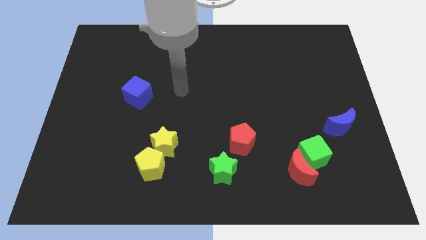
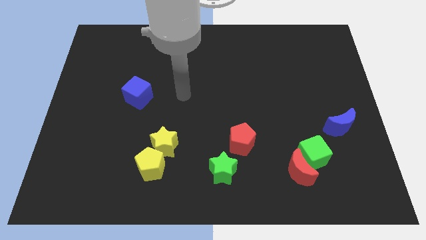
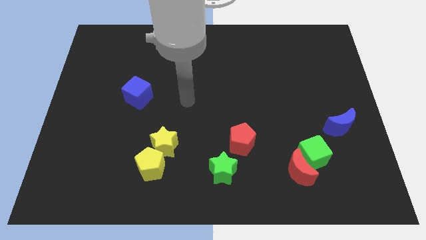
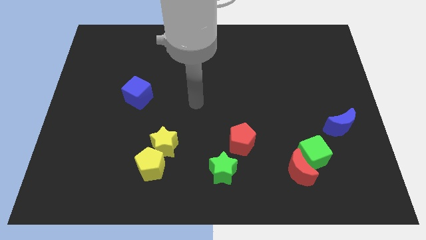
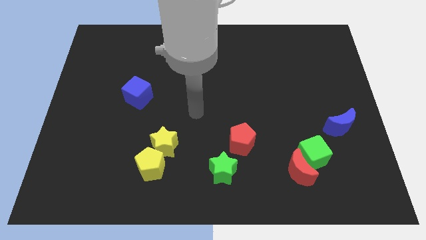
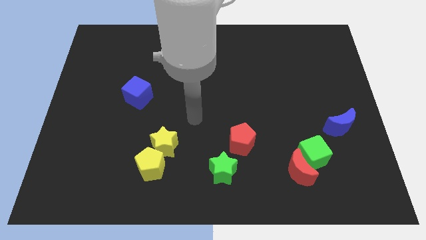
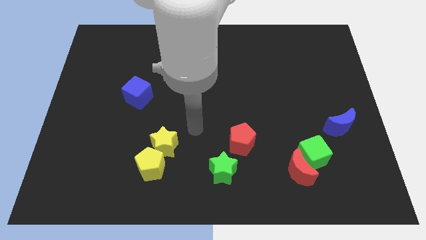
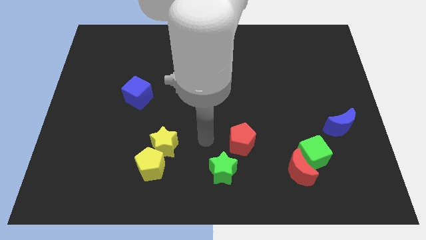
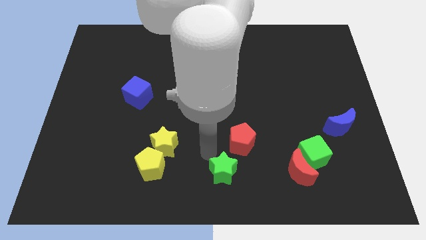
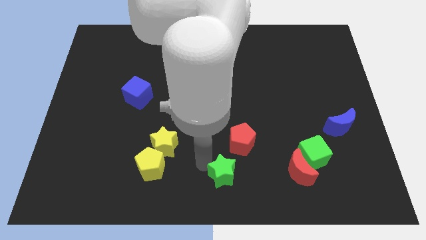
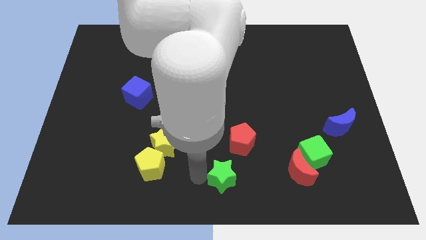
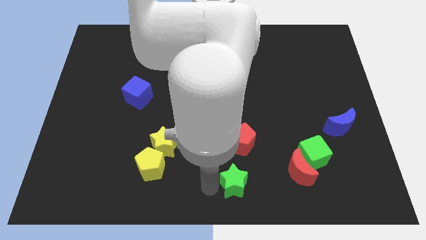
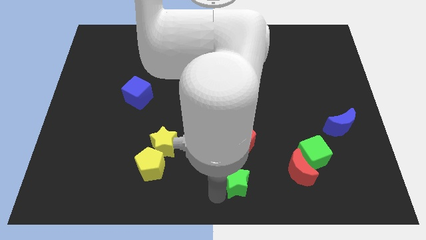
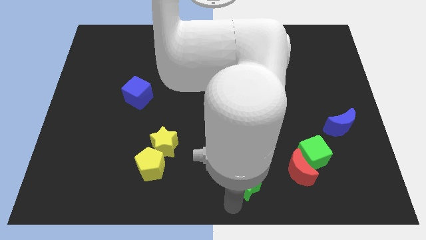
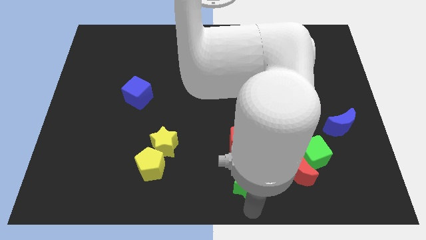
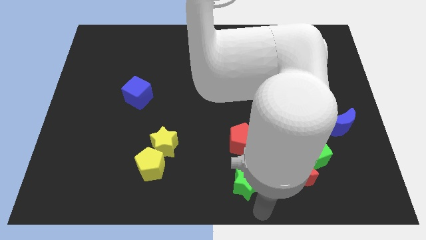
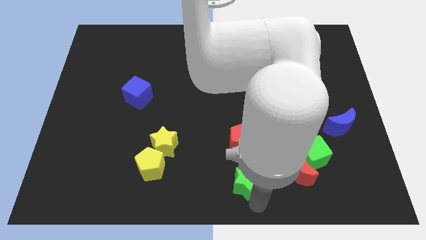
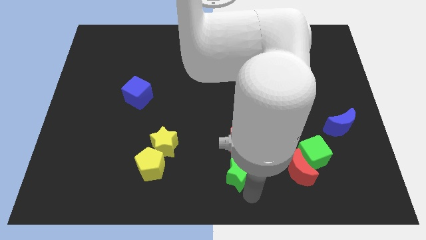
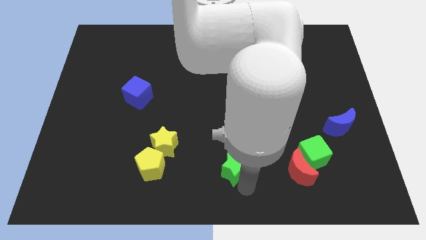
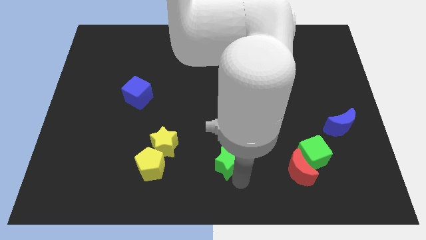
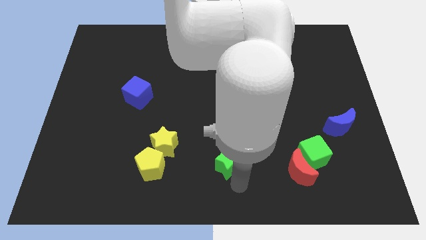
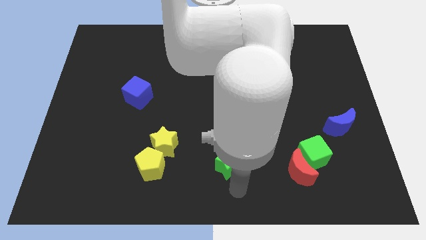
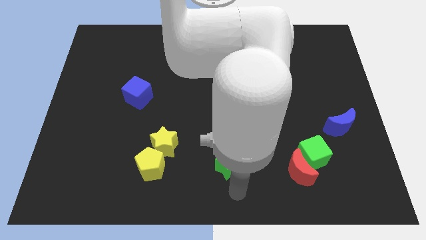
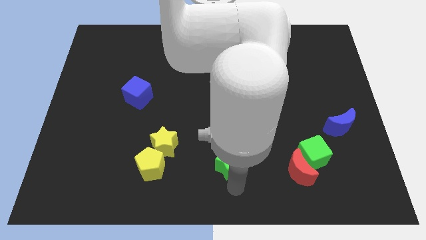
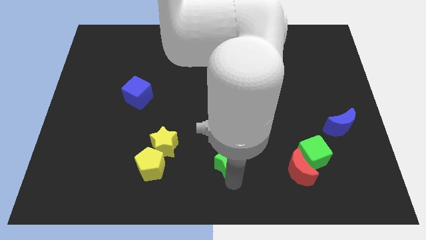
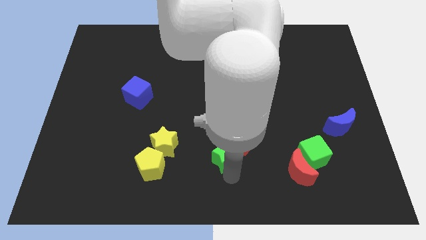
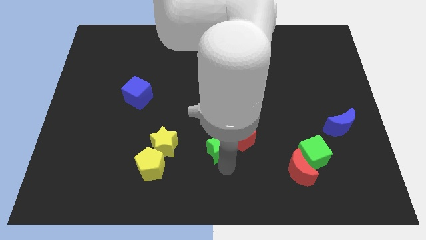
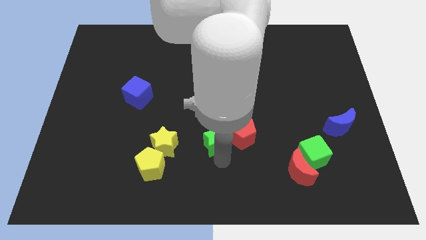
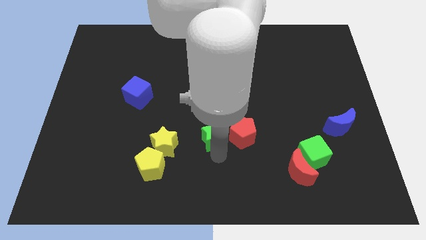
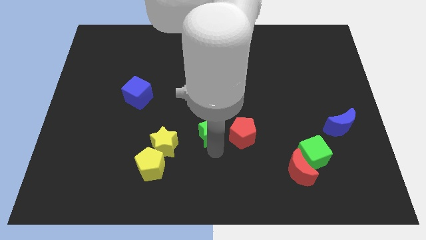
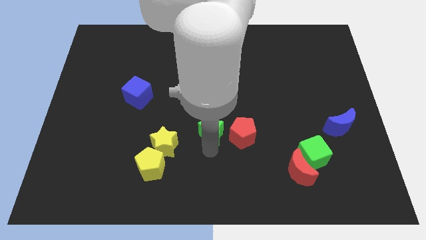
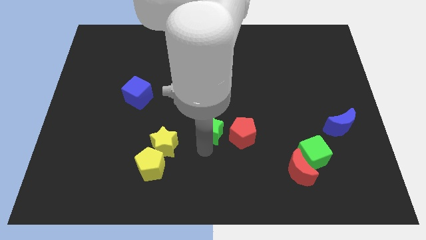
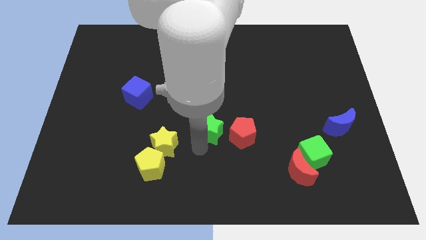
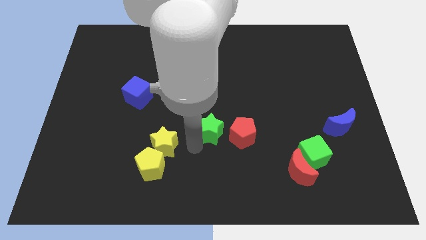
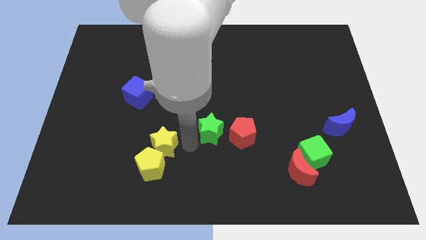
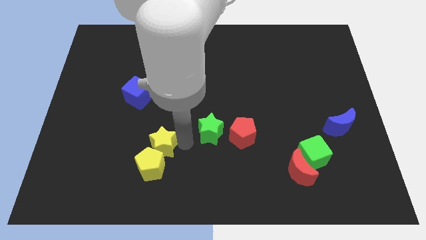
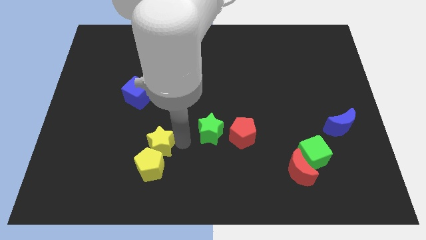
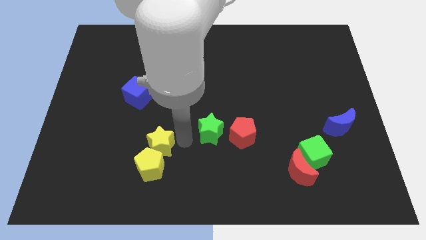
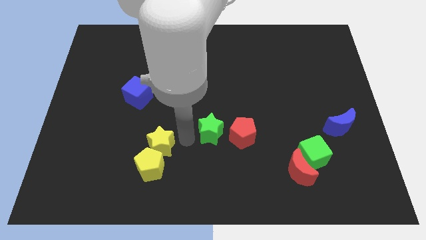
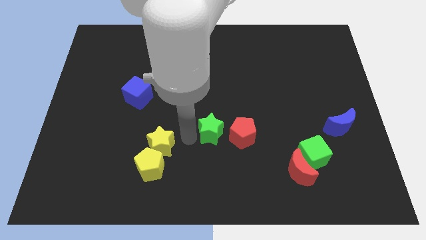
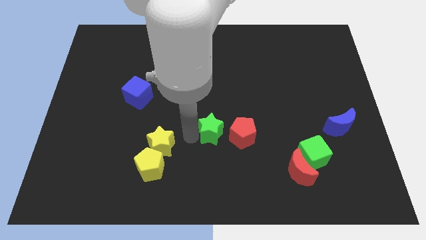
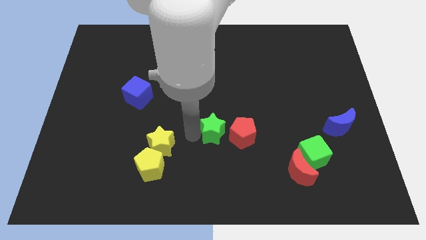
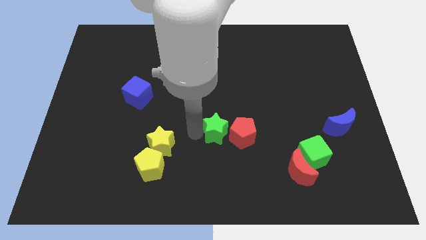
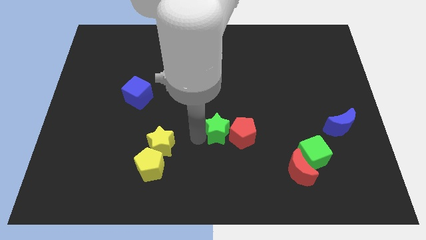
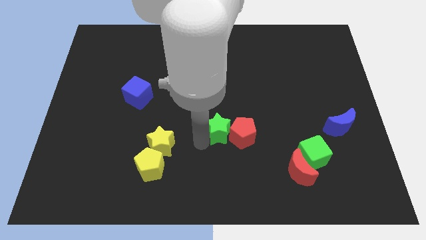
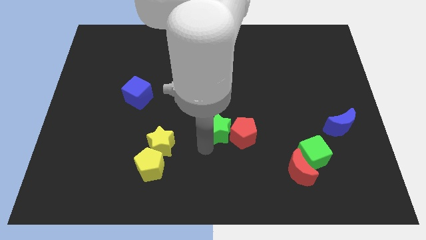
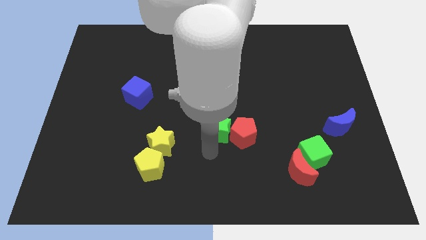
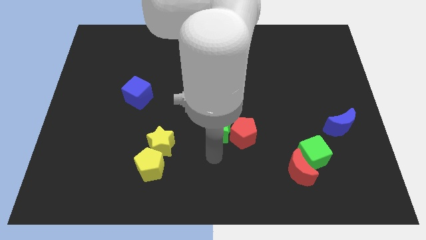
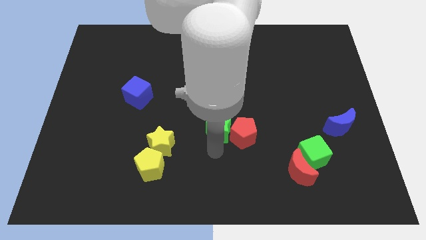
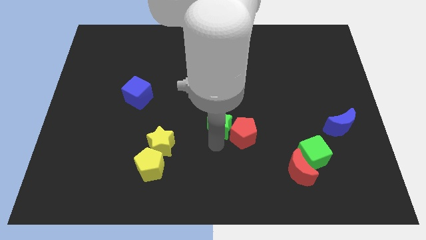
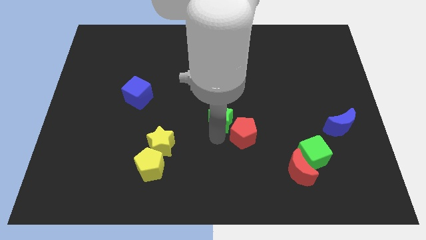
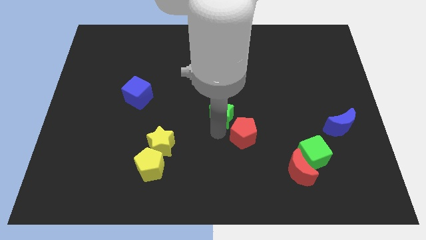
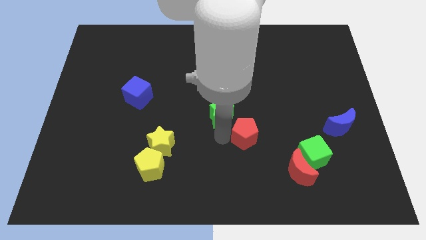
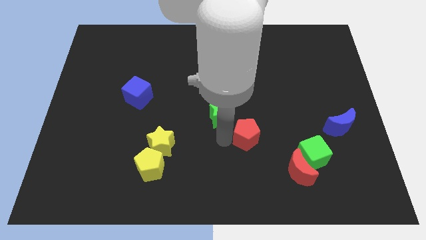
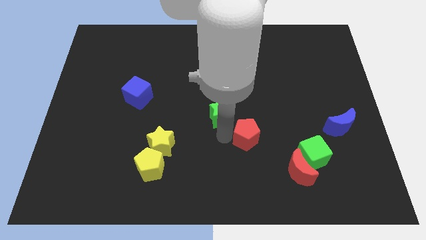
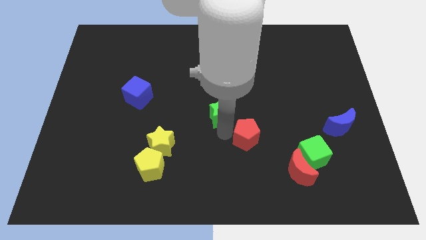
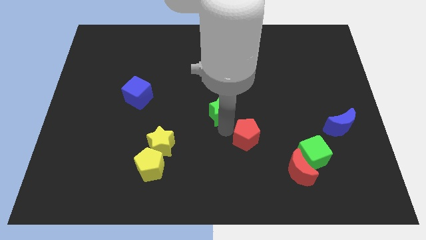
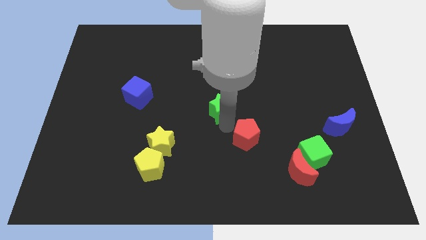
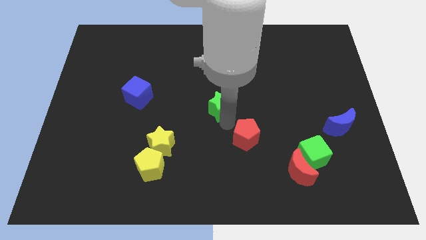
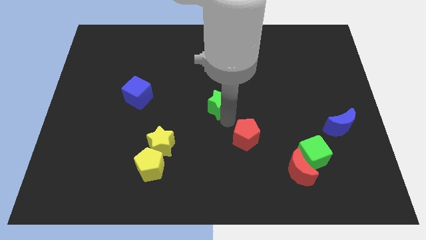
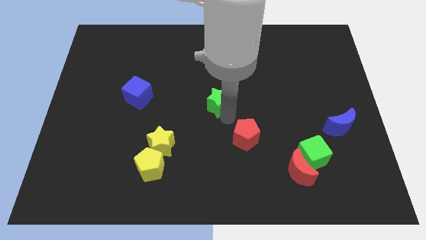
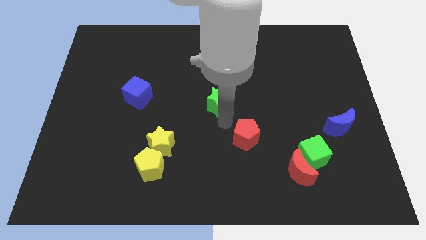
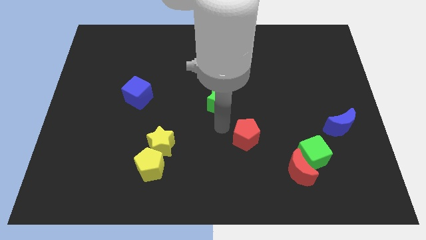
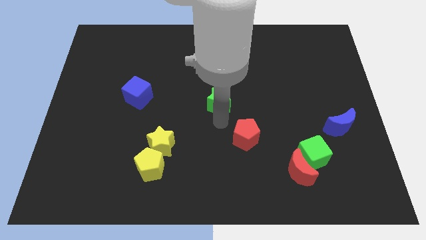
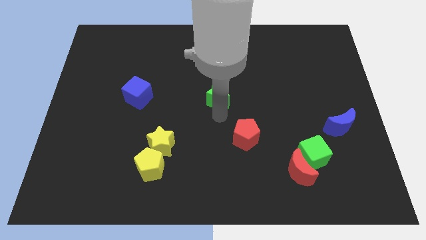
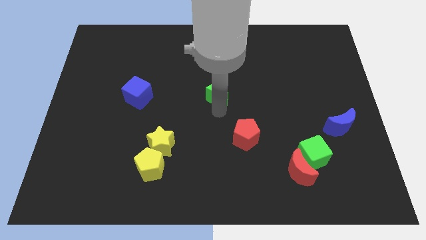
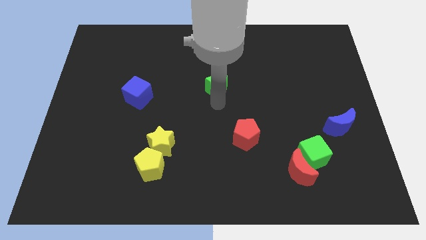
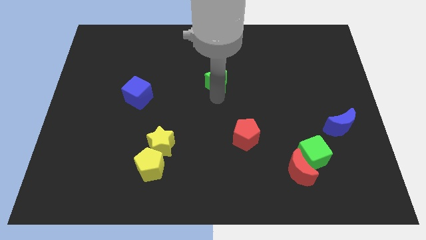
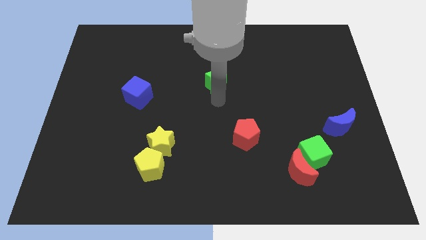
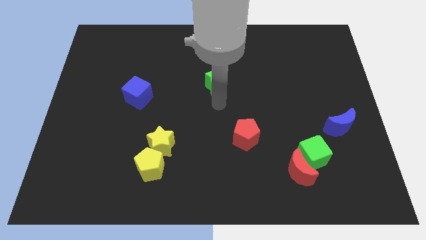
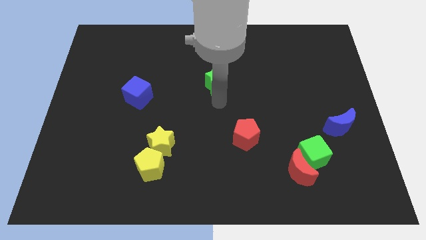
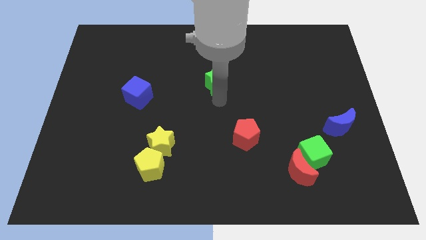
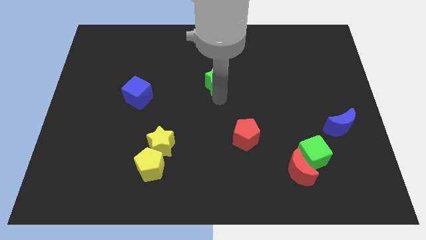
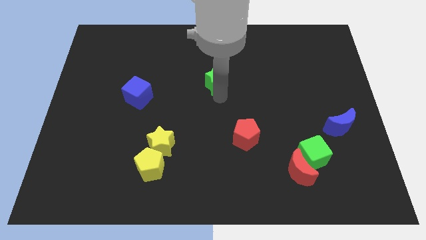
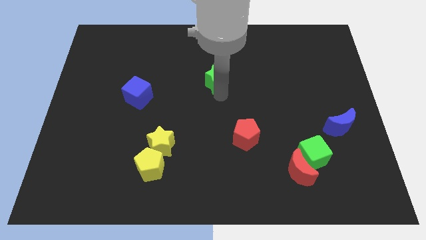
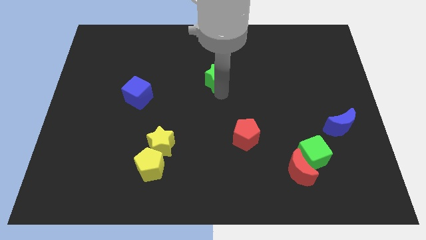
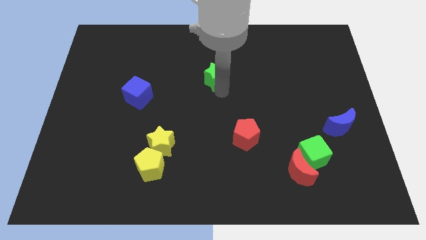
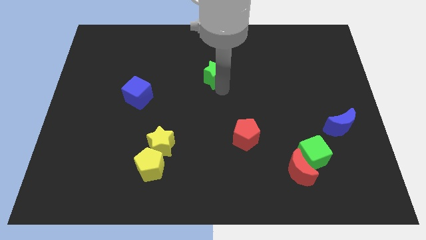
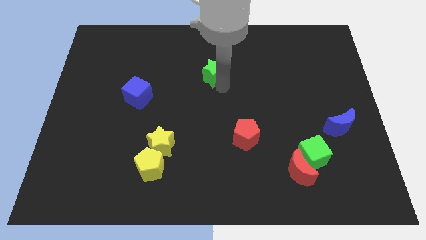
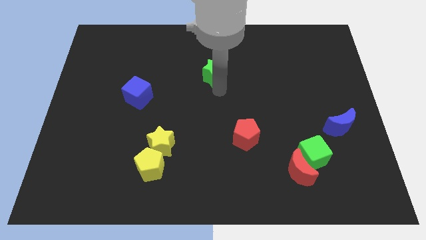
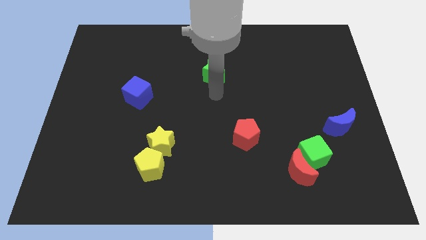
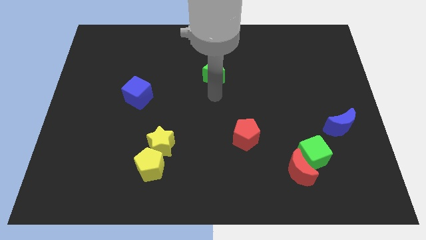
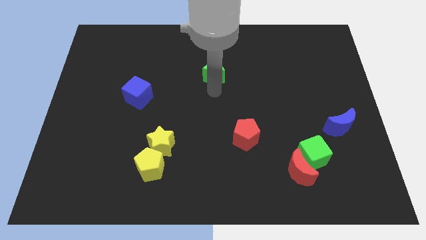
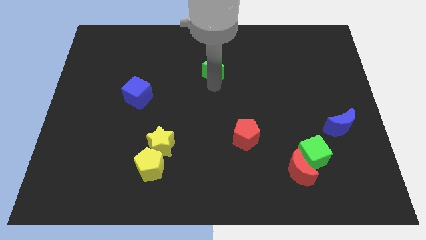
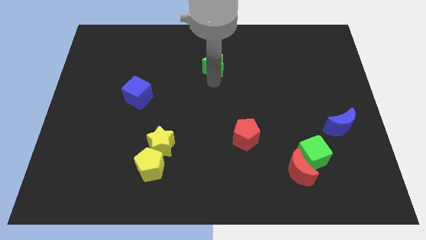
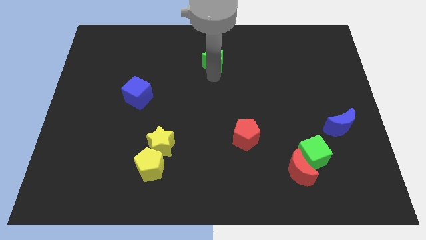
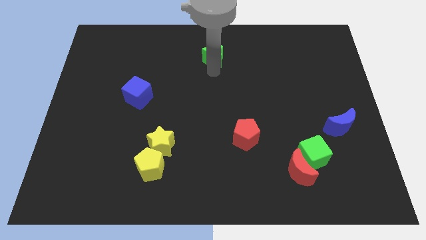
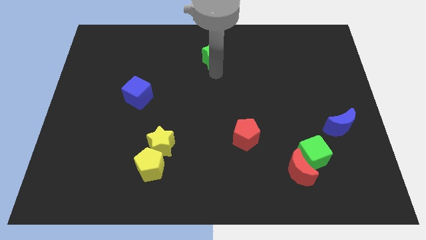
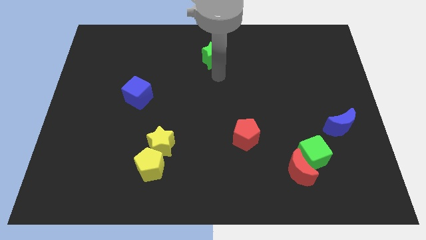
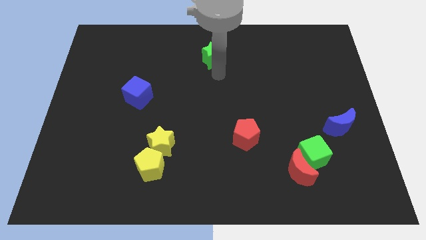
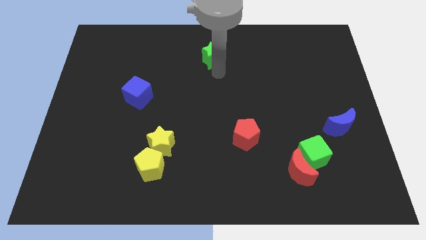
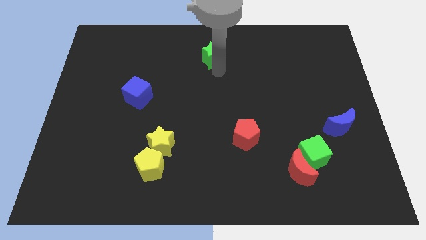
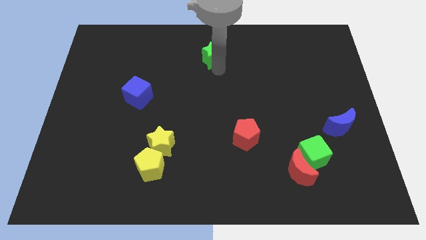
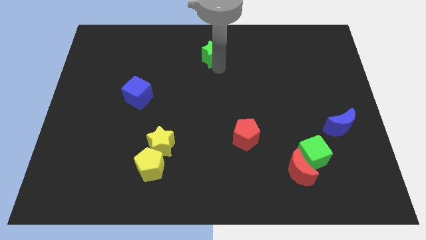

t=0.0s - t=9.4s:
push the green star to the top side
